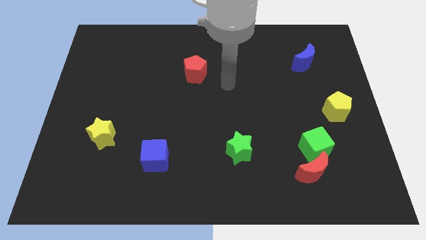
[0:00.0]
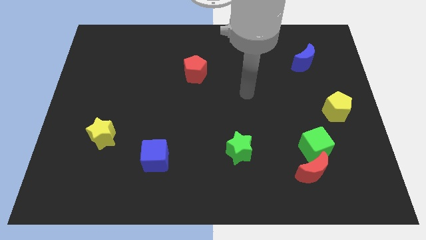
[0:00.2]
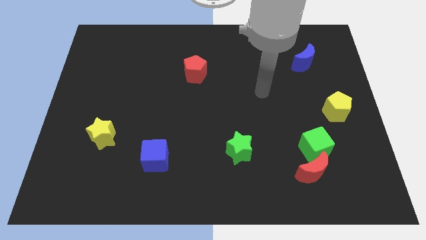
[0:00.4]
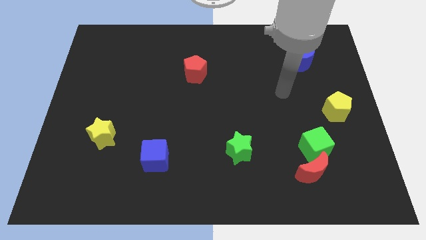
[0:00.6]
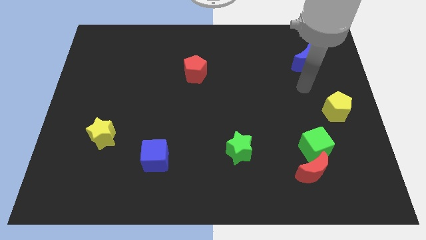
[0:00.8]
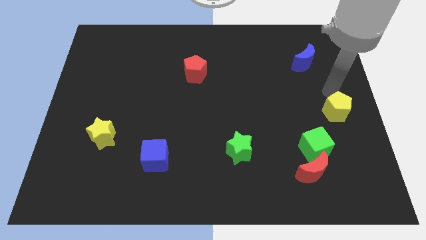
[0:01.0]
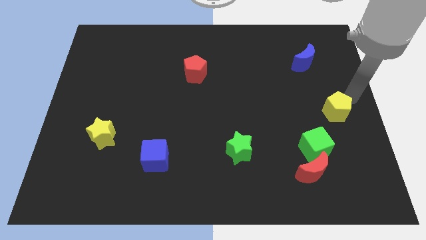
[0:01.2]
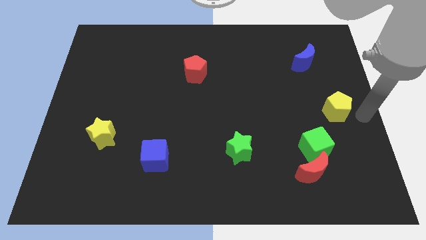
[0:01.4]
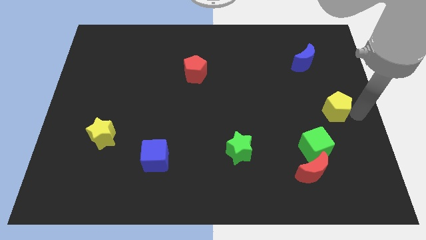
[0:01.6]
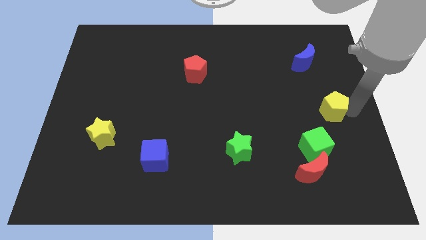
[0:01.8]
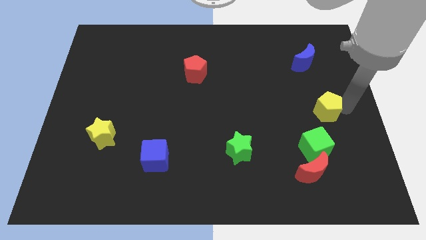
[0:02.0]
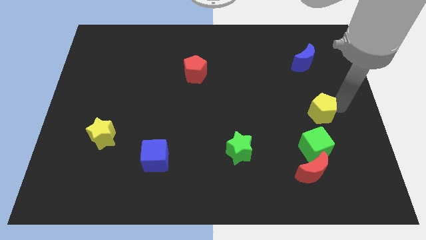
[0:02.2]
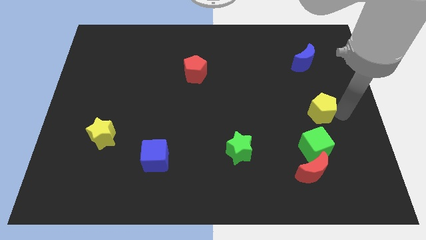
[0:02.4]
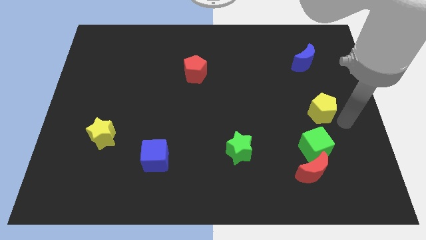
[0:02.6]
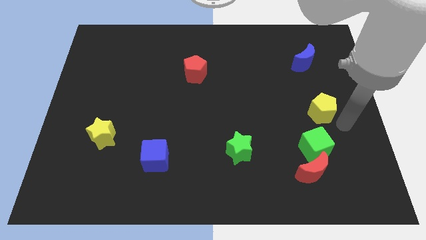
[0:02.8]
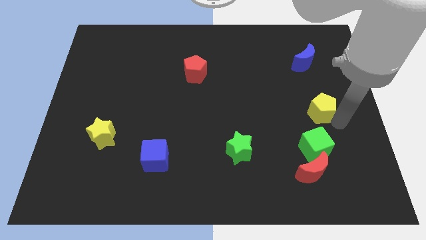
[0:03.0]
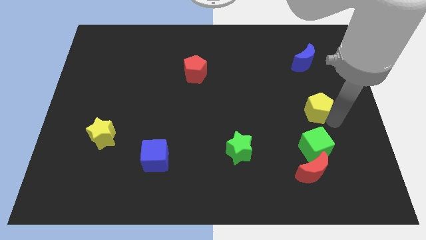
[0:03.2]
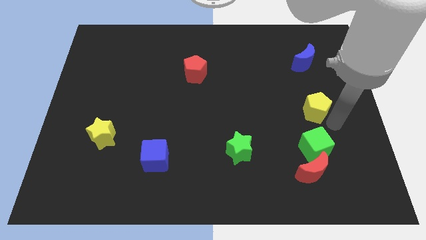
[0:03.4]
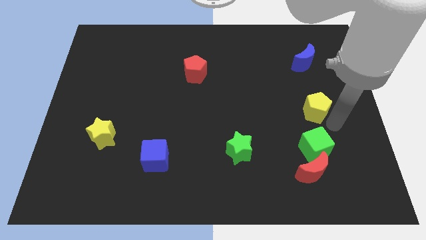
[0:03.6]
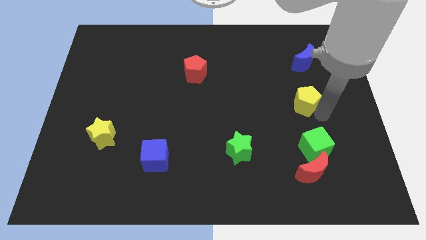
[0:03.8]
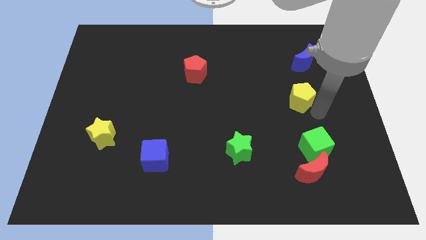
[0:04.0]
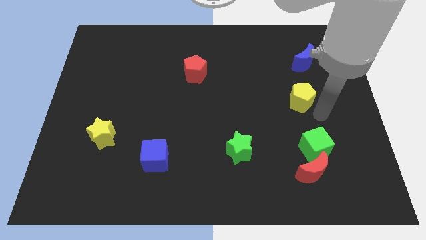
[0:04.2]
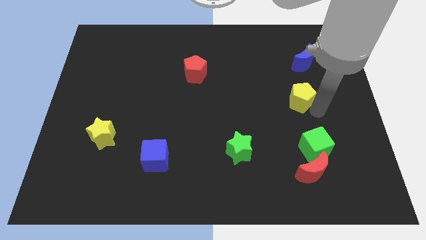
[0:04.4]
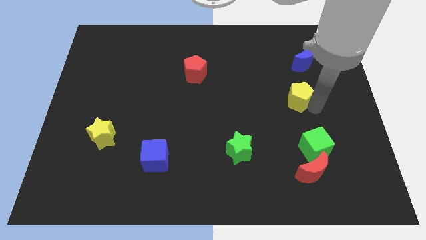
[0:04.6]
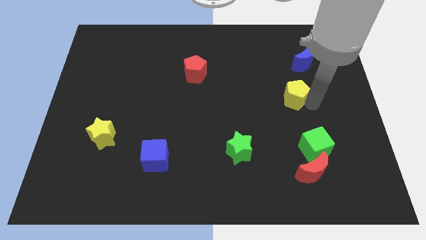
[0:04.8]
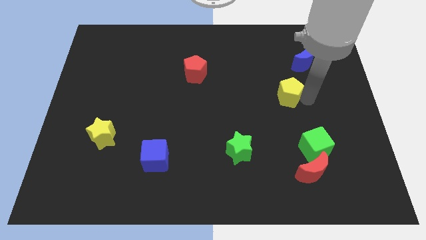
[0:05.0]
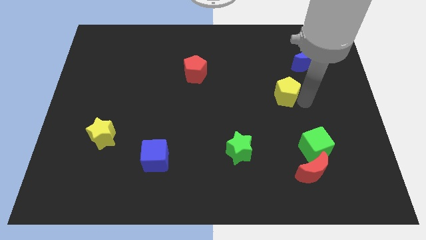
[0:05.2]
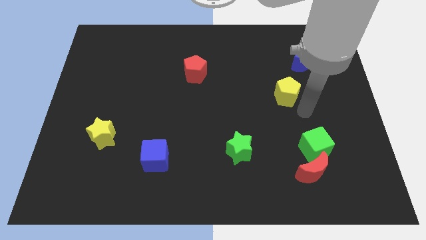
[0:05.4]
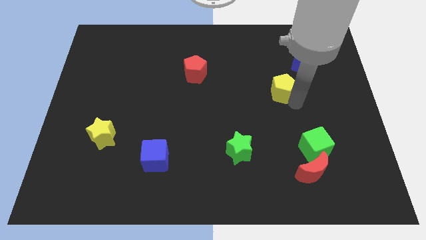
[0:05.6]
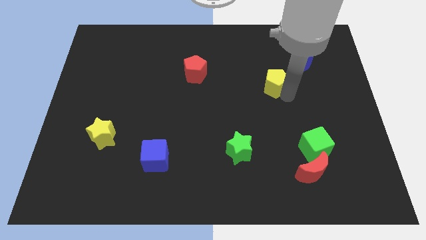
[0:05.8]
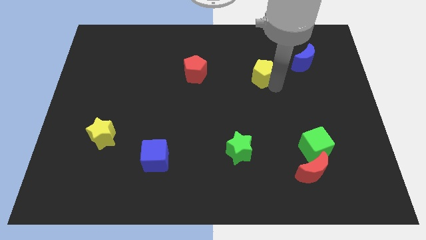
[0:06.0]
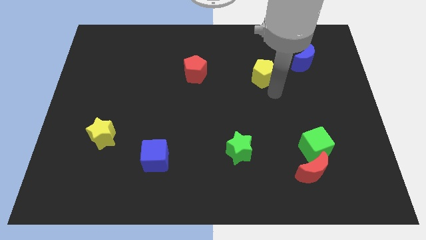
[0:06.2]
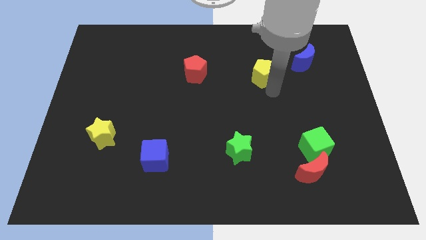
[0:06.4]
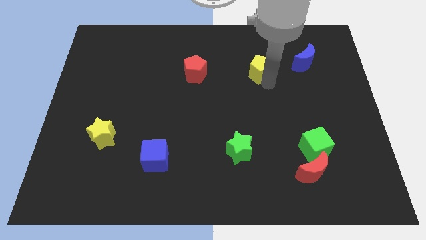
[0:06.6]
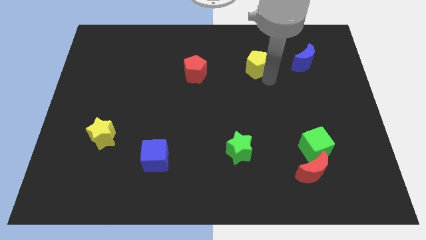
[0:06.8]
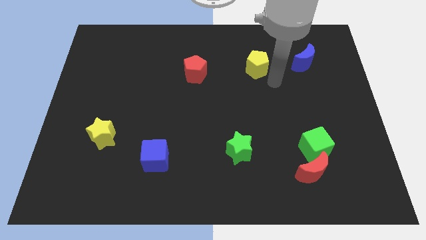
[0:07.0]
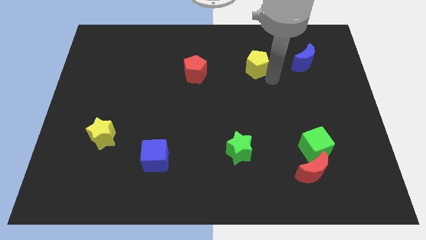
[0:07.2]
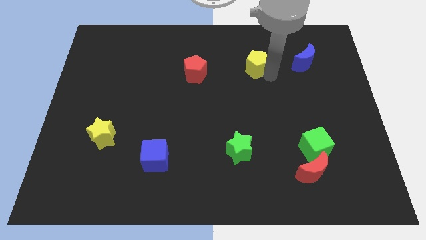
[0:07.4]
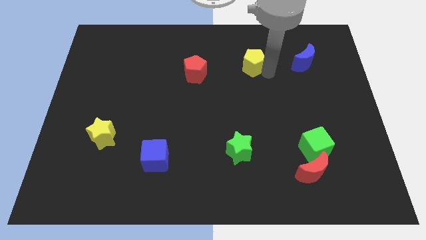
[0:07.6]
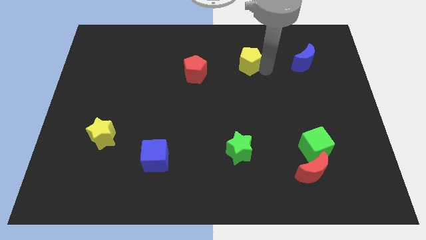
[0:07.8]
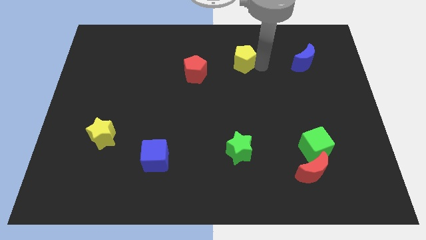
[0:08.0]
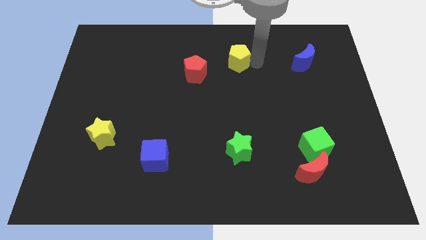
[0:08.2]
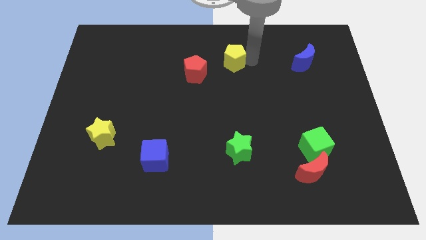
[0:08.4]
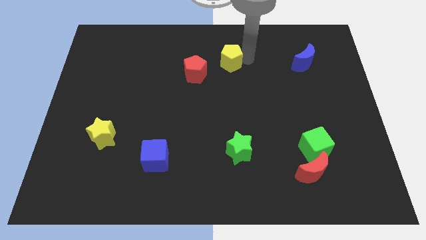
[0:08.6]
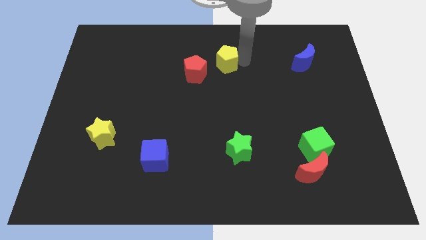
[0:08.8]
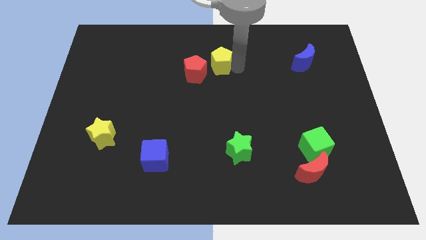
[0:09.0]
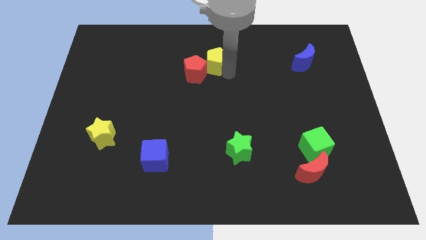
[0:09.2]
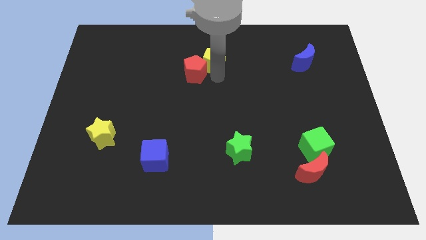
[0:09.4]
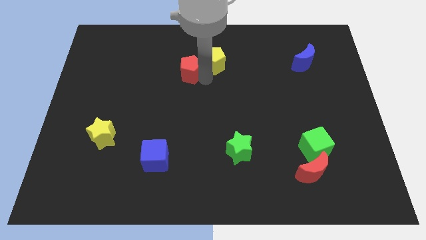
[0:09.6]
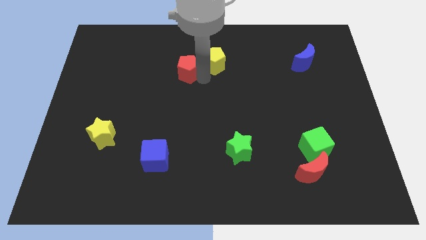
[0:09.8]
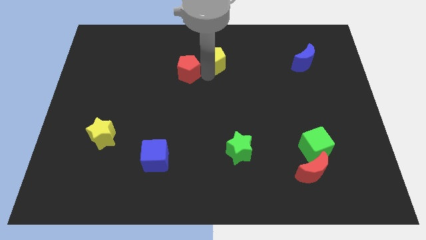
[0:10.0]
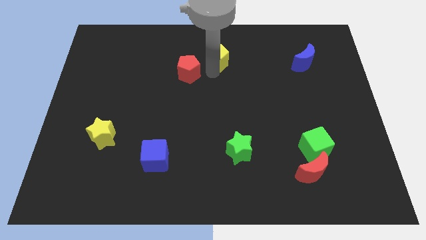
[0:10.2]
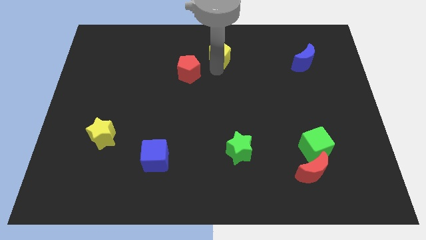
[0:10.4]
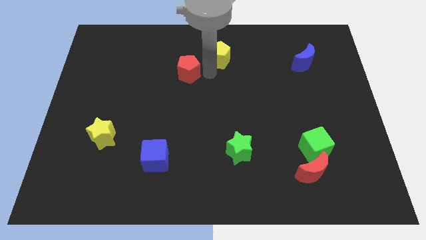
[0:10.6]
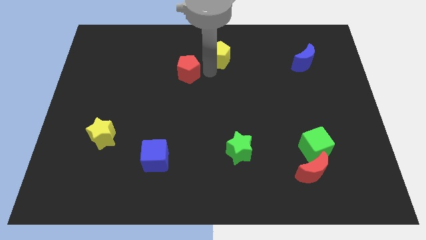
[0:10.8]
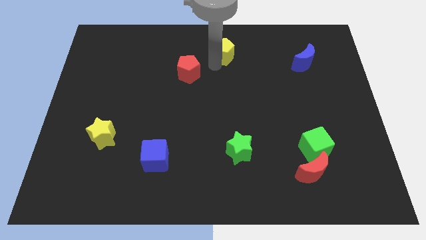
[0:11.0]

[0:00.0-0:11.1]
push the yellow pentagon to the top

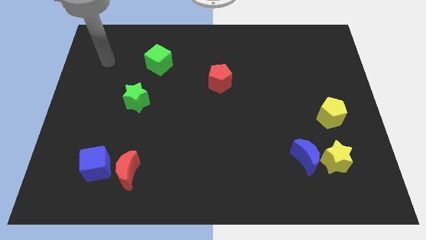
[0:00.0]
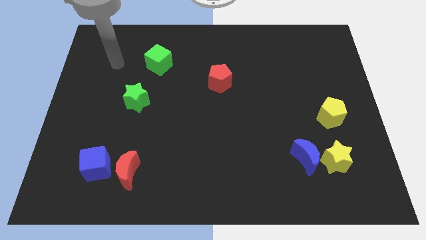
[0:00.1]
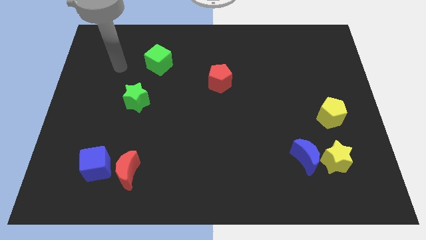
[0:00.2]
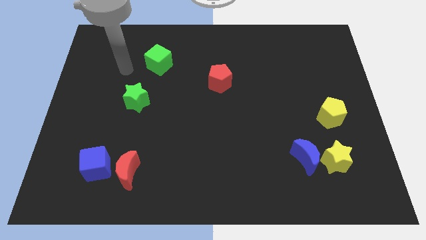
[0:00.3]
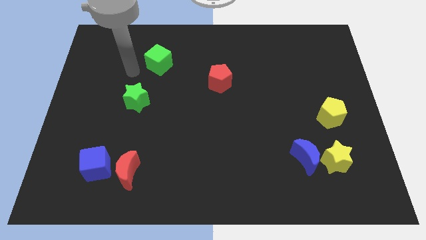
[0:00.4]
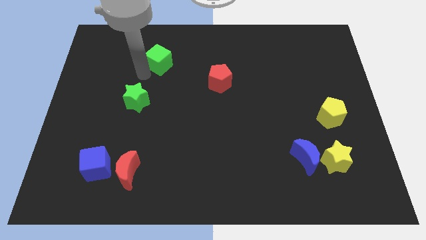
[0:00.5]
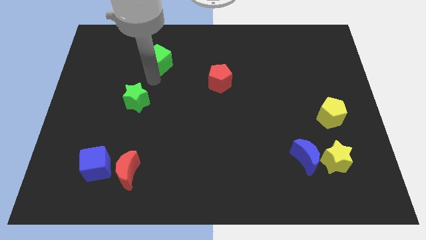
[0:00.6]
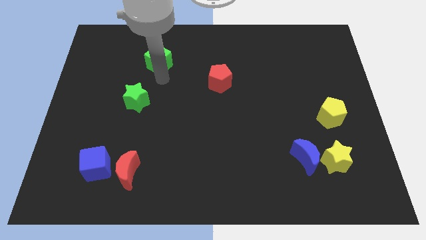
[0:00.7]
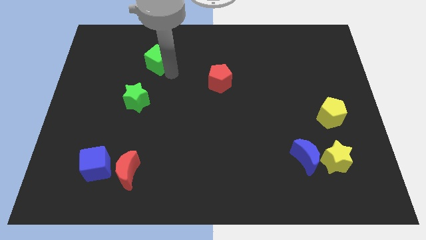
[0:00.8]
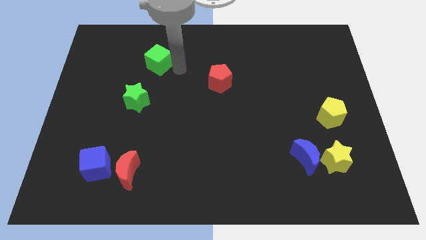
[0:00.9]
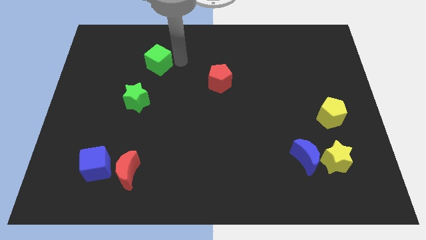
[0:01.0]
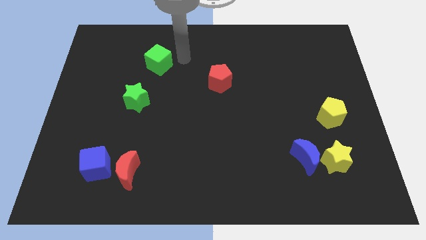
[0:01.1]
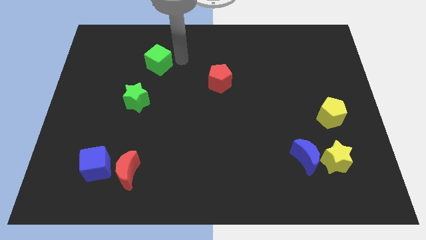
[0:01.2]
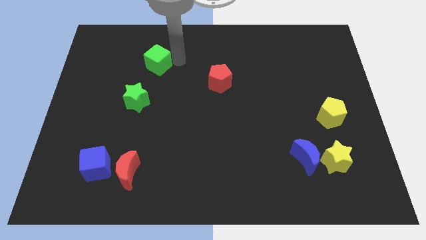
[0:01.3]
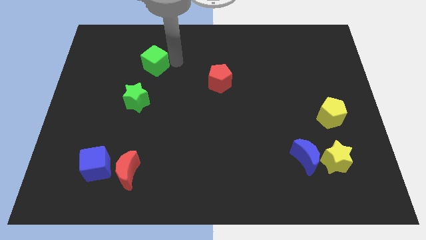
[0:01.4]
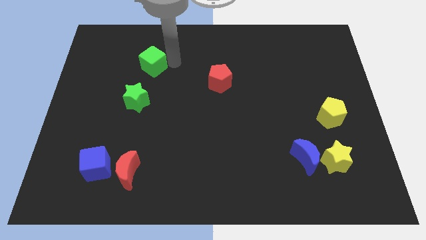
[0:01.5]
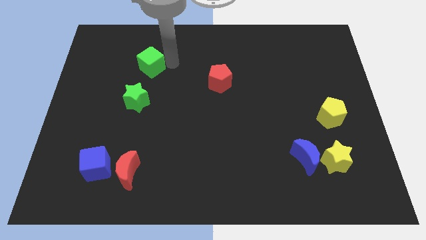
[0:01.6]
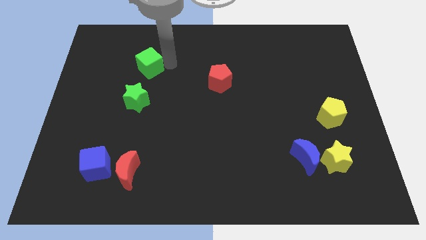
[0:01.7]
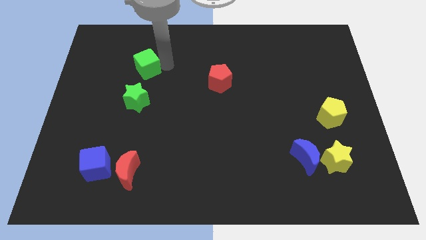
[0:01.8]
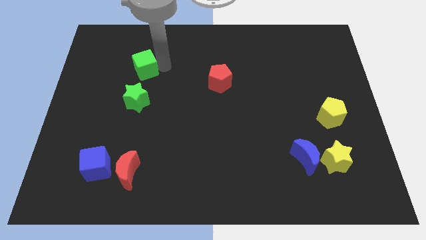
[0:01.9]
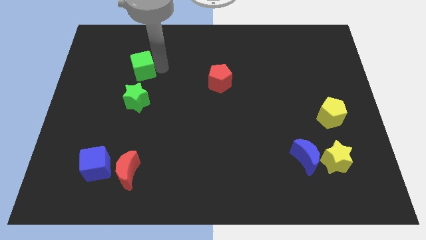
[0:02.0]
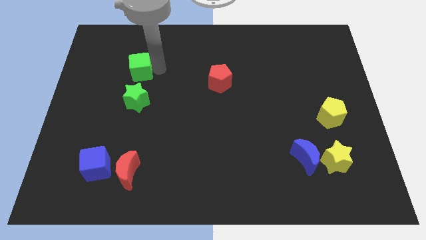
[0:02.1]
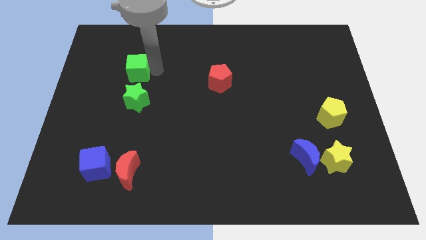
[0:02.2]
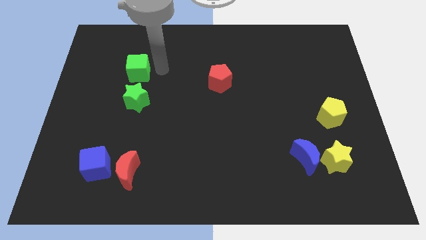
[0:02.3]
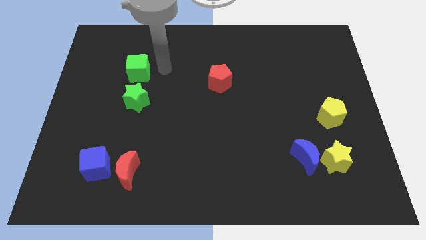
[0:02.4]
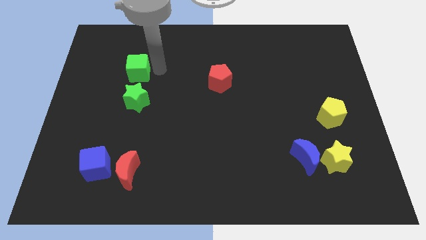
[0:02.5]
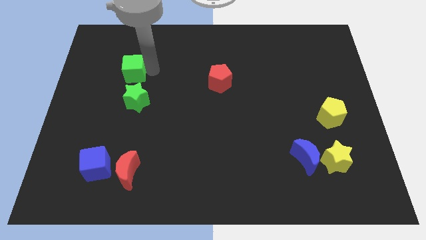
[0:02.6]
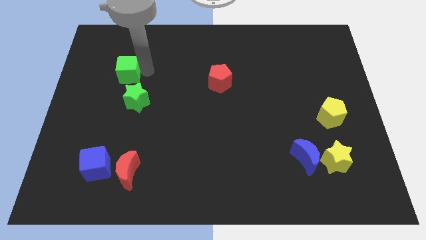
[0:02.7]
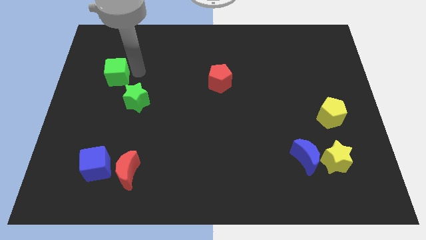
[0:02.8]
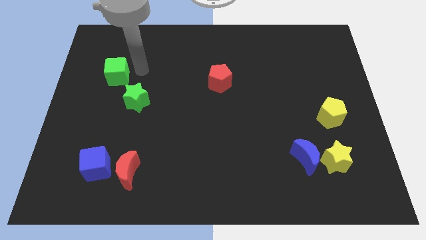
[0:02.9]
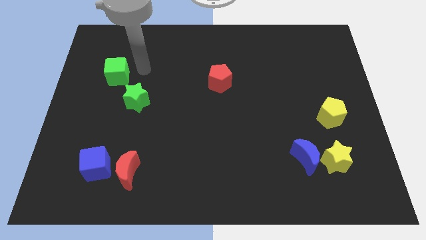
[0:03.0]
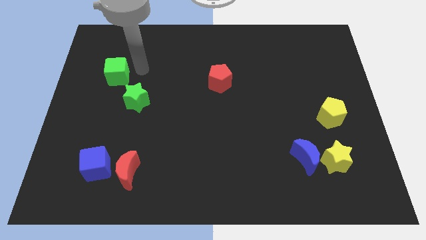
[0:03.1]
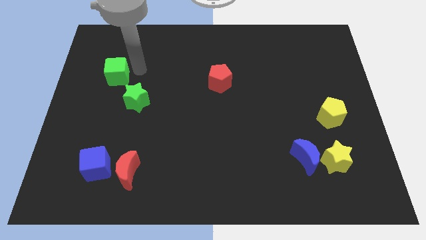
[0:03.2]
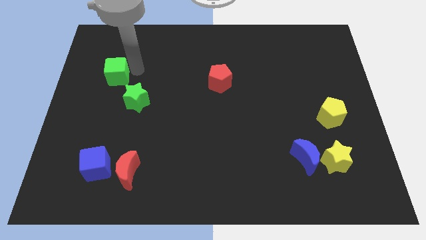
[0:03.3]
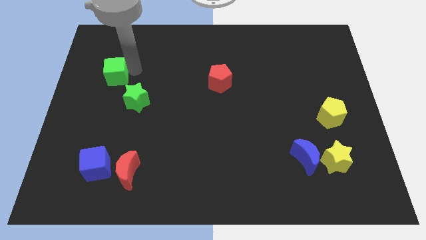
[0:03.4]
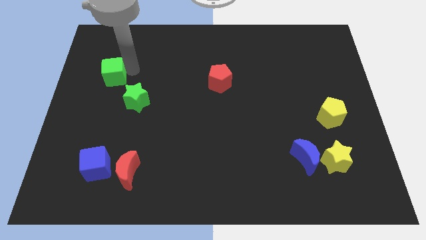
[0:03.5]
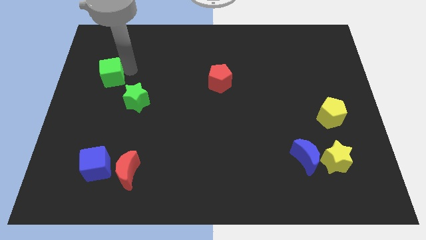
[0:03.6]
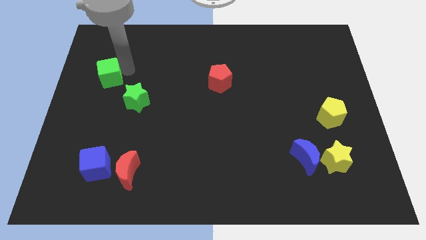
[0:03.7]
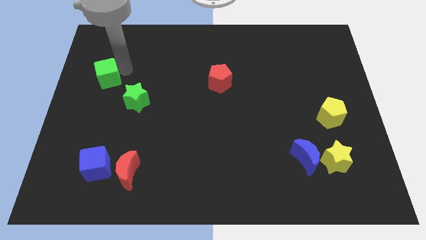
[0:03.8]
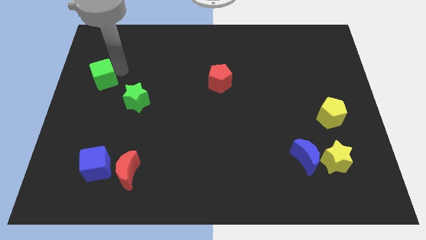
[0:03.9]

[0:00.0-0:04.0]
push the green cube to the center left
